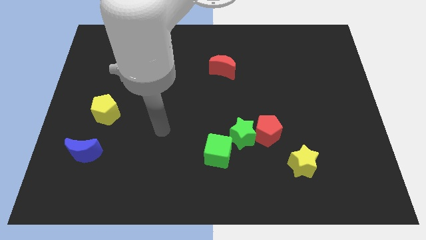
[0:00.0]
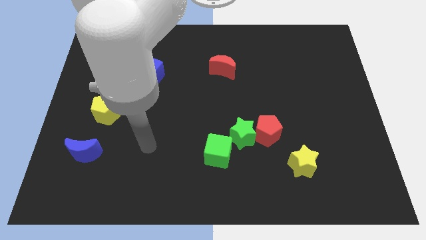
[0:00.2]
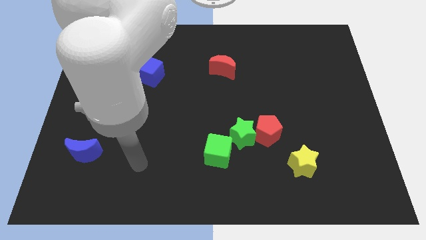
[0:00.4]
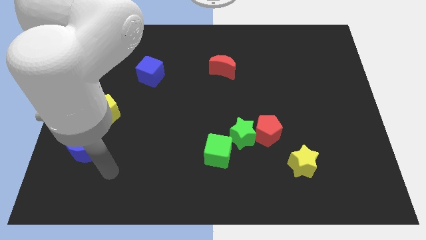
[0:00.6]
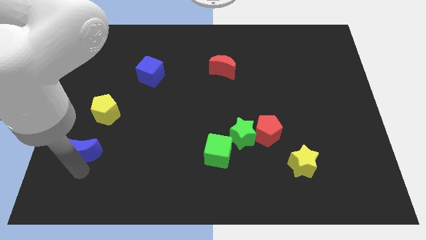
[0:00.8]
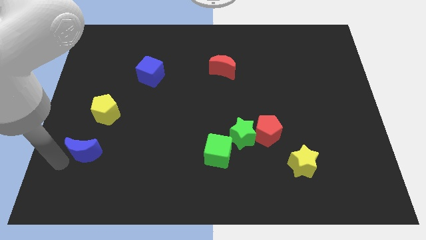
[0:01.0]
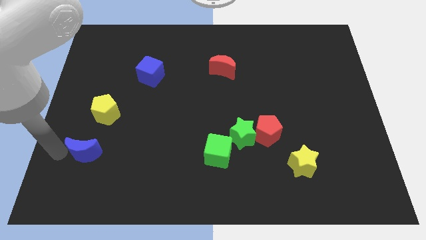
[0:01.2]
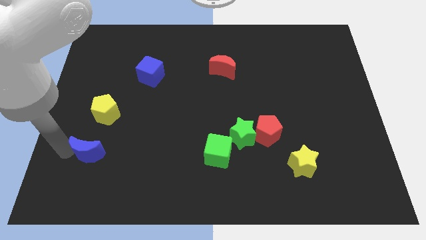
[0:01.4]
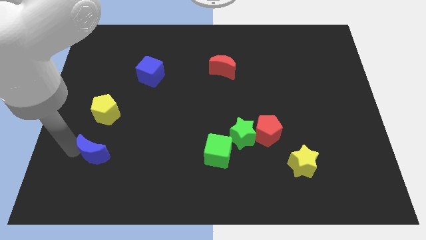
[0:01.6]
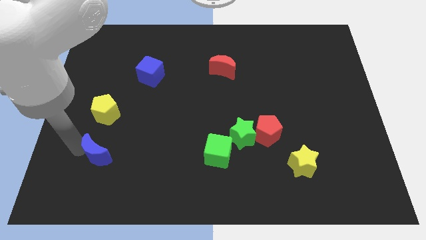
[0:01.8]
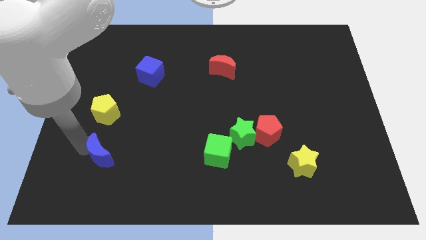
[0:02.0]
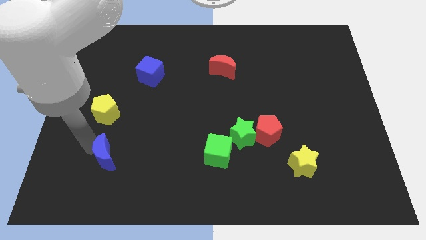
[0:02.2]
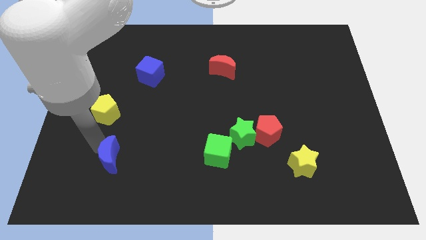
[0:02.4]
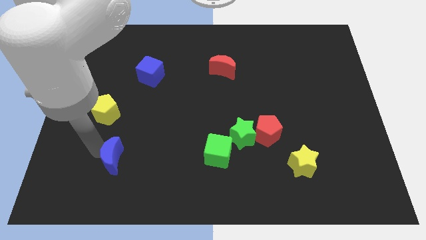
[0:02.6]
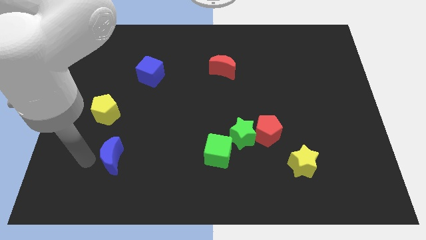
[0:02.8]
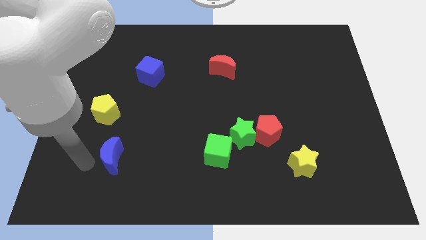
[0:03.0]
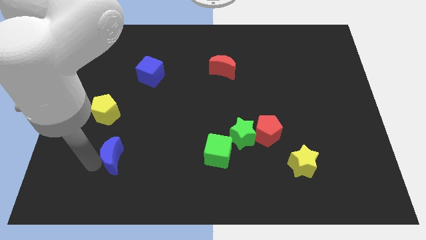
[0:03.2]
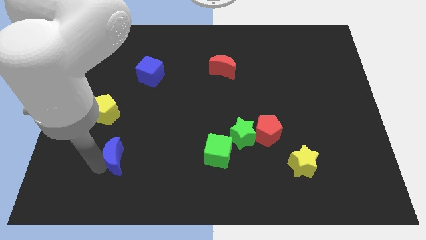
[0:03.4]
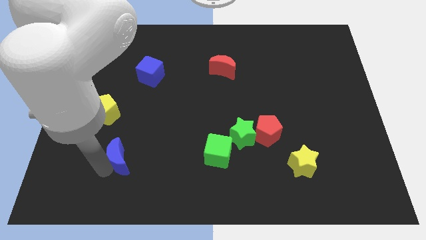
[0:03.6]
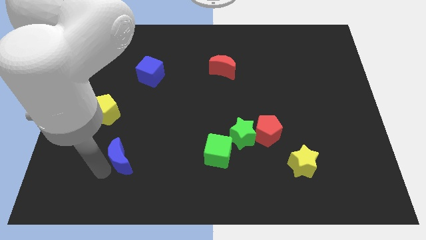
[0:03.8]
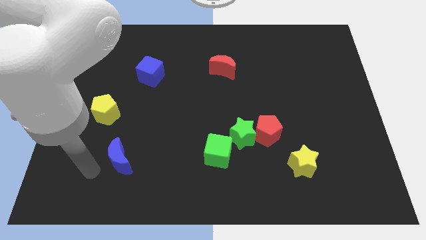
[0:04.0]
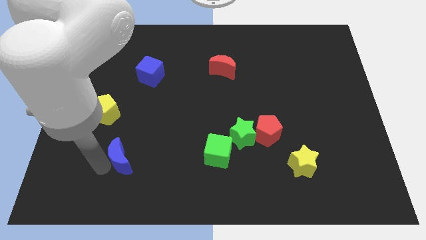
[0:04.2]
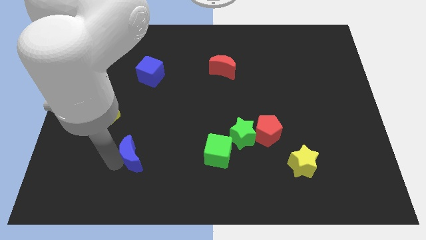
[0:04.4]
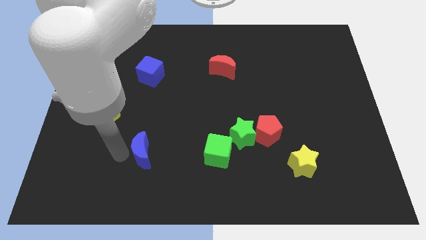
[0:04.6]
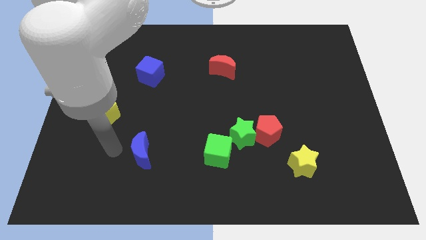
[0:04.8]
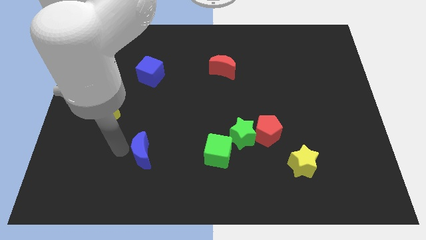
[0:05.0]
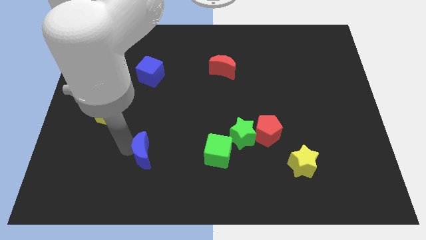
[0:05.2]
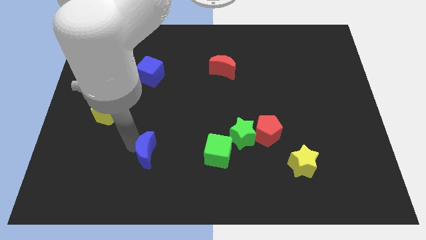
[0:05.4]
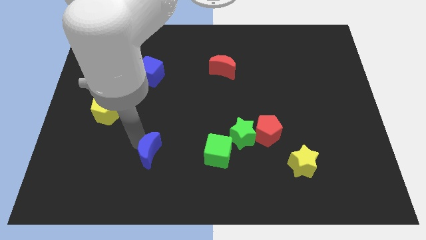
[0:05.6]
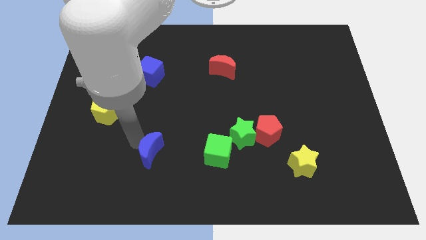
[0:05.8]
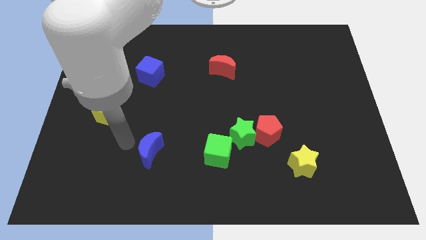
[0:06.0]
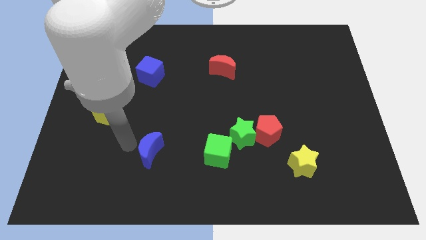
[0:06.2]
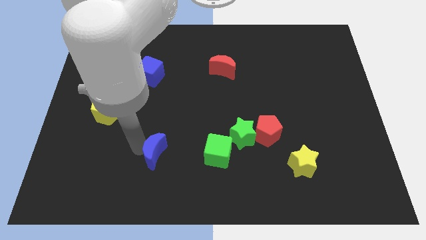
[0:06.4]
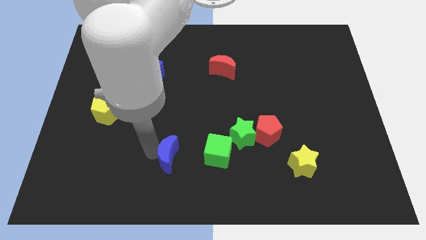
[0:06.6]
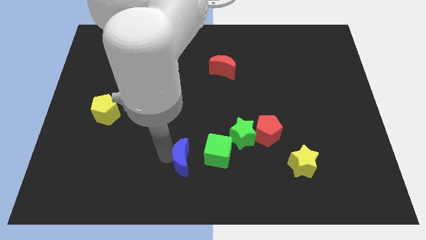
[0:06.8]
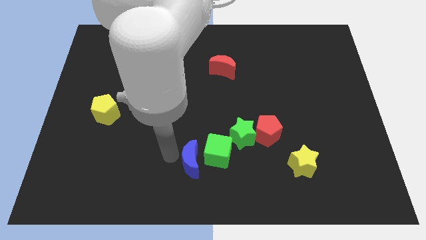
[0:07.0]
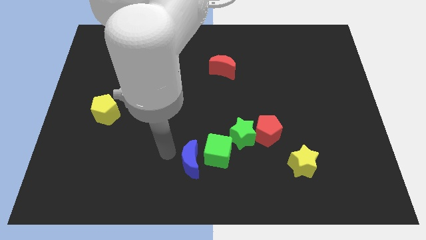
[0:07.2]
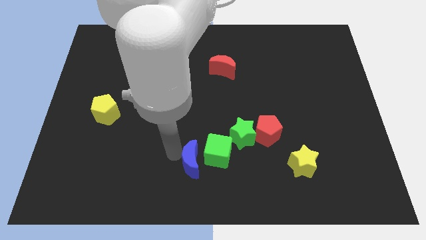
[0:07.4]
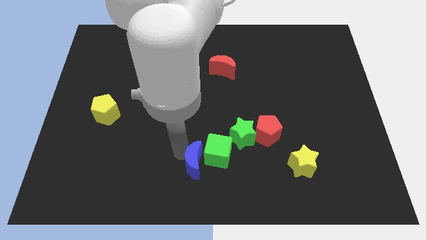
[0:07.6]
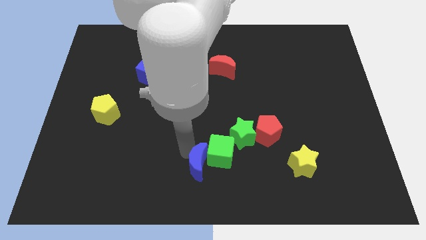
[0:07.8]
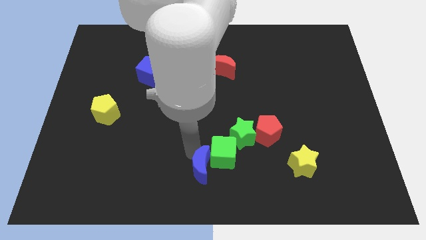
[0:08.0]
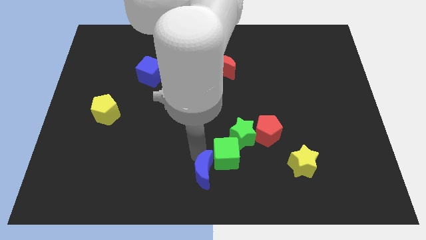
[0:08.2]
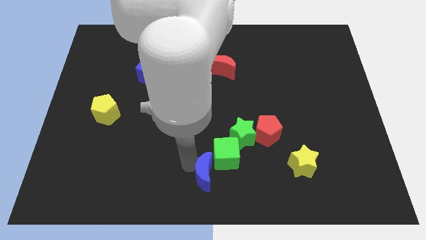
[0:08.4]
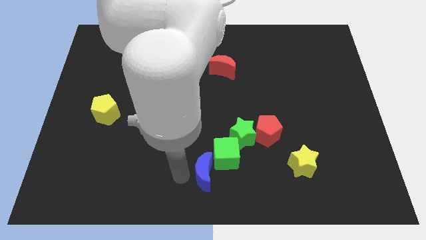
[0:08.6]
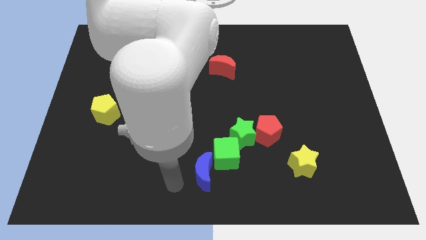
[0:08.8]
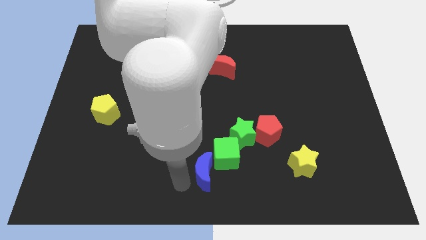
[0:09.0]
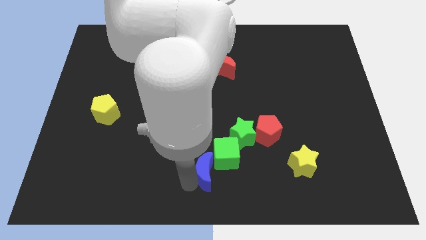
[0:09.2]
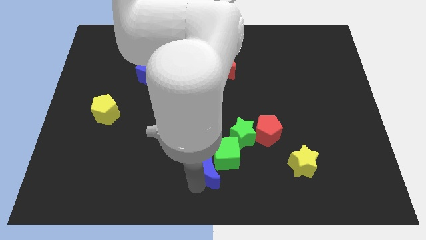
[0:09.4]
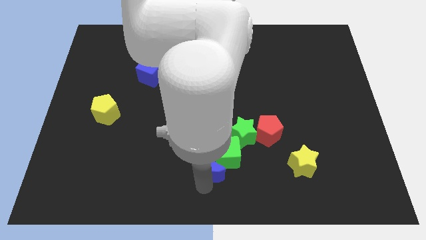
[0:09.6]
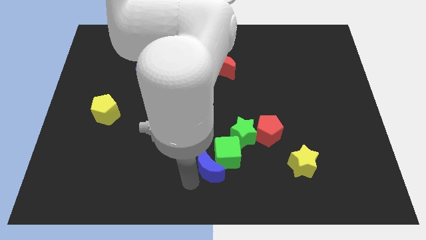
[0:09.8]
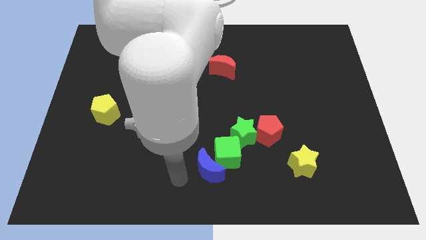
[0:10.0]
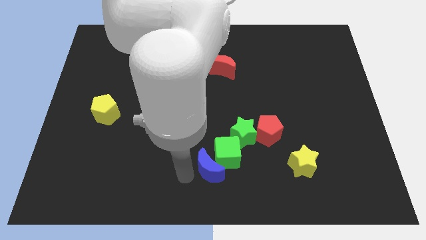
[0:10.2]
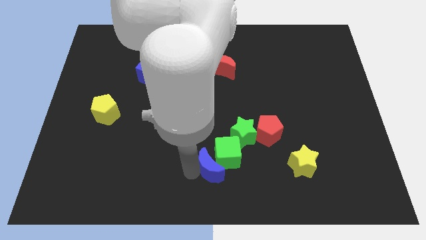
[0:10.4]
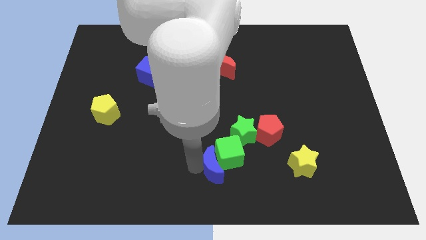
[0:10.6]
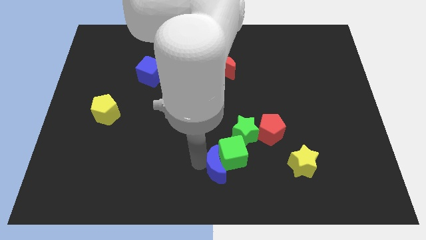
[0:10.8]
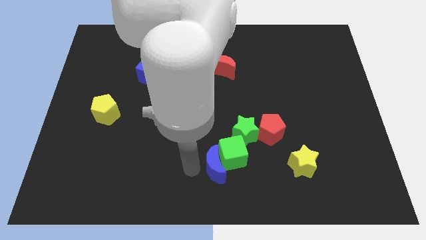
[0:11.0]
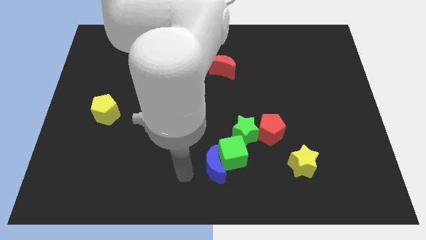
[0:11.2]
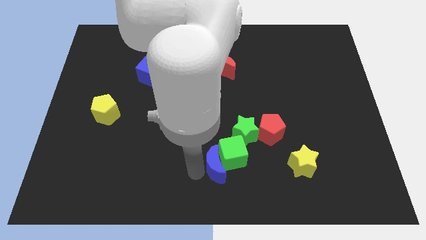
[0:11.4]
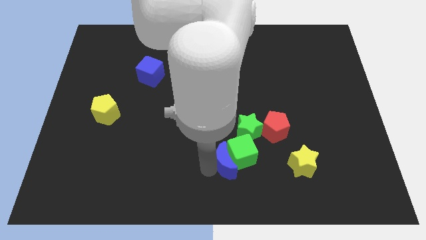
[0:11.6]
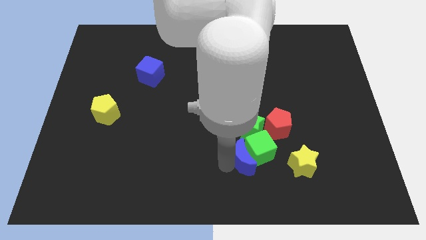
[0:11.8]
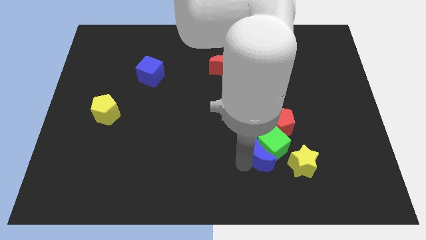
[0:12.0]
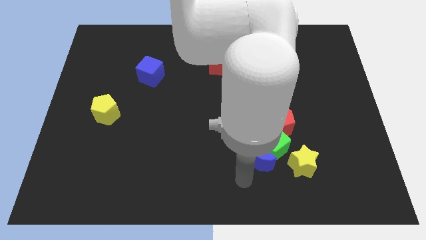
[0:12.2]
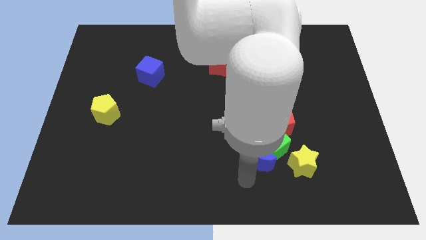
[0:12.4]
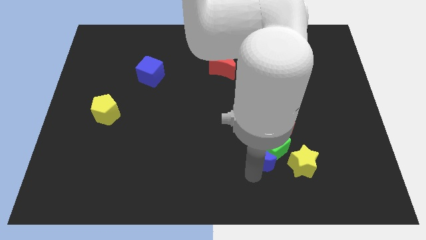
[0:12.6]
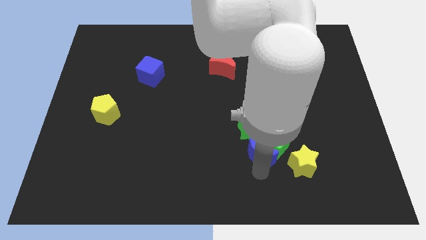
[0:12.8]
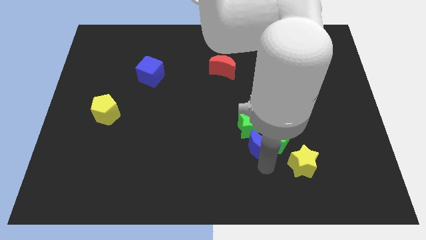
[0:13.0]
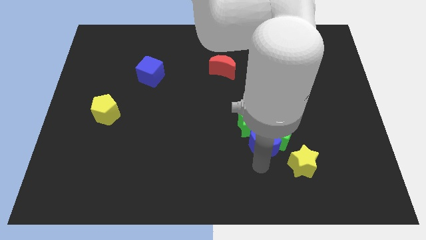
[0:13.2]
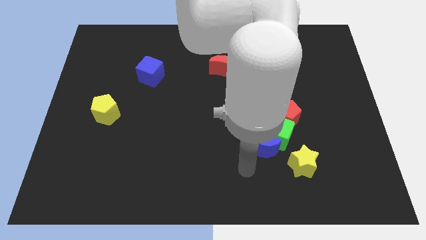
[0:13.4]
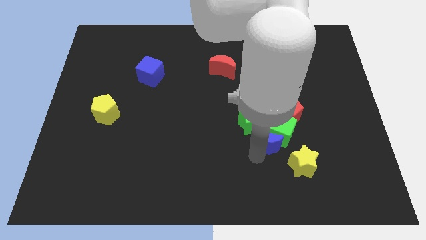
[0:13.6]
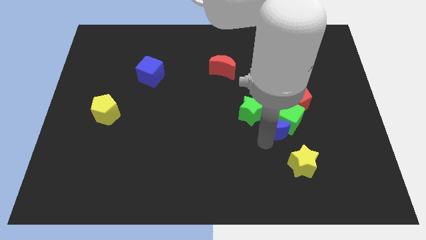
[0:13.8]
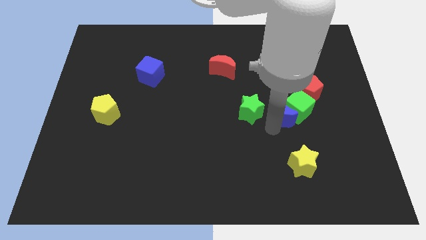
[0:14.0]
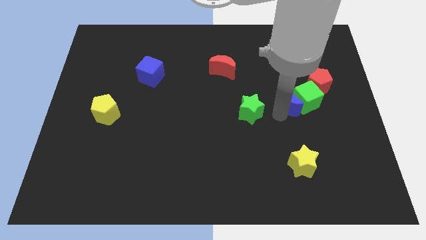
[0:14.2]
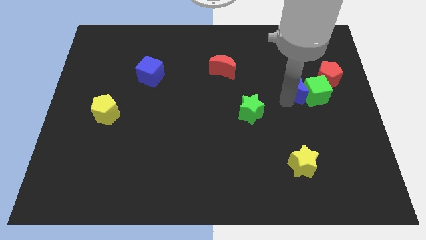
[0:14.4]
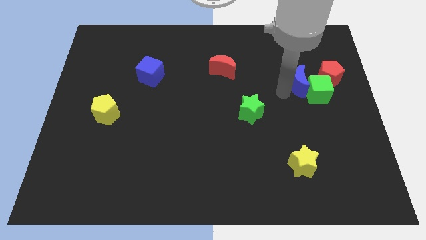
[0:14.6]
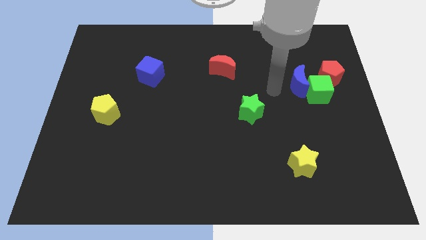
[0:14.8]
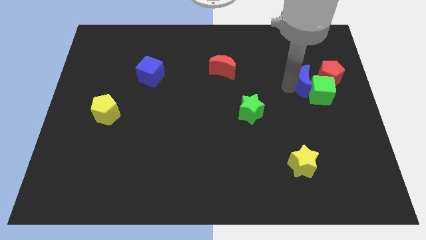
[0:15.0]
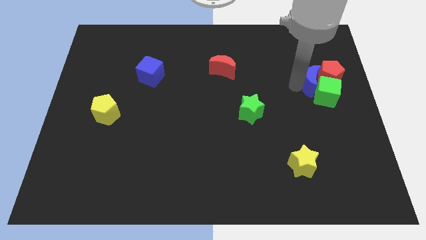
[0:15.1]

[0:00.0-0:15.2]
put the blue moon next to the red pentagon
